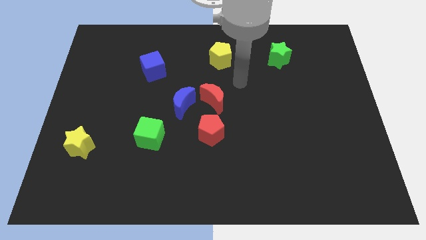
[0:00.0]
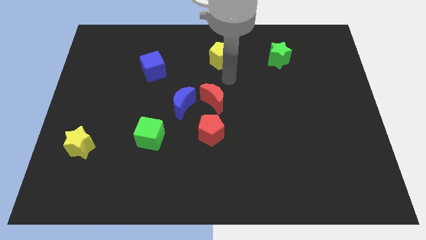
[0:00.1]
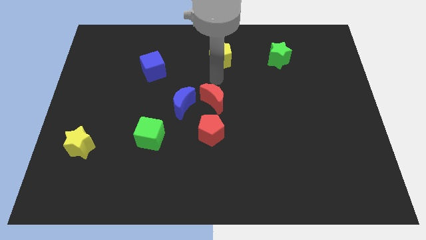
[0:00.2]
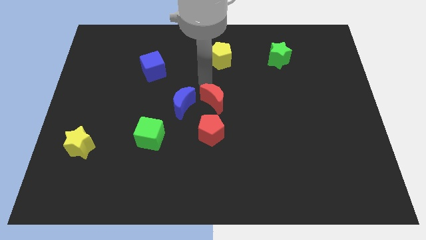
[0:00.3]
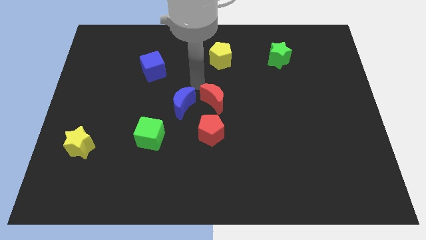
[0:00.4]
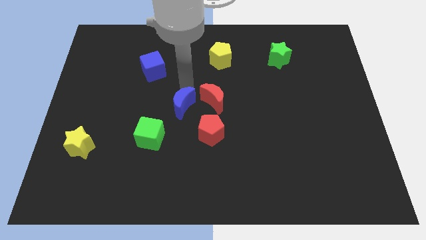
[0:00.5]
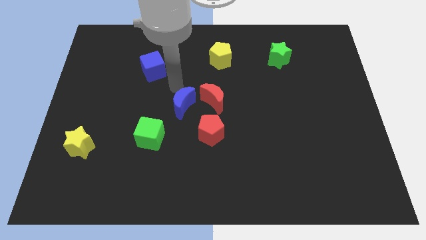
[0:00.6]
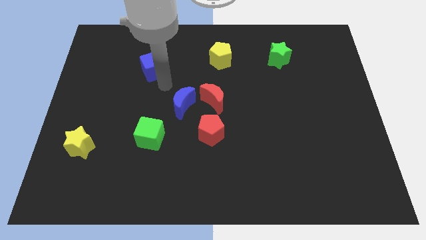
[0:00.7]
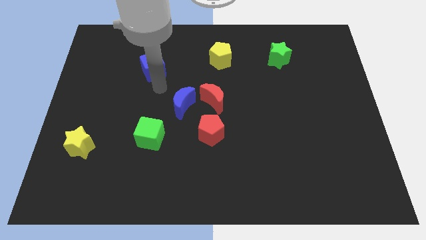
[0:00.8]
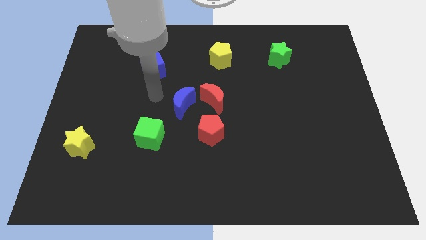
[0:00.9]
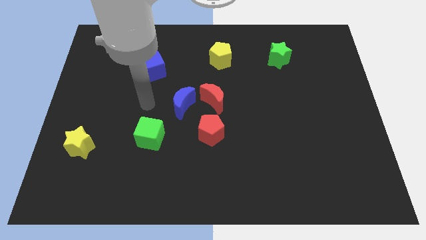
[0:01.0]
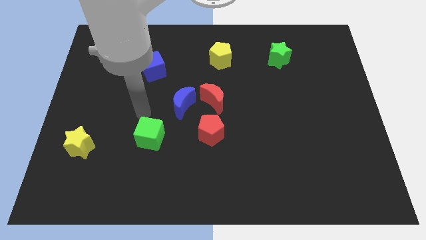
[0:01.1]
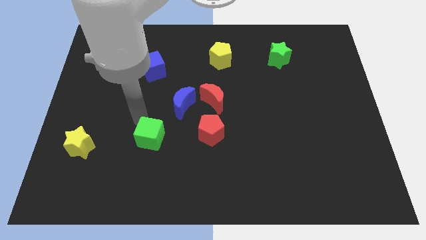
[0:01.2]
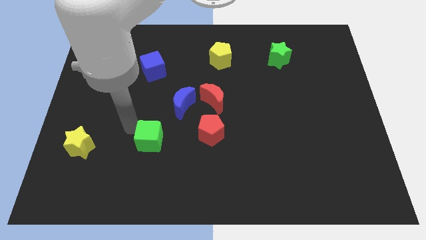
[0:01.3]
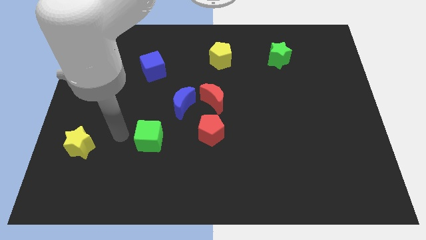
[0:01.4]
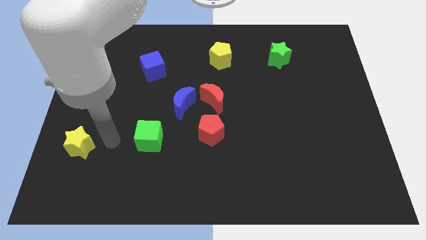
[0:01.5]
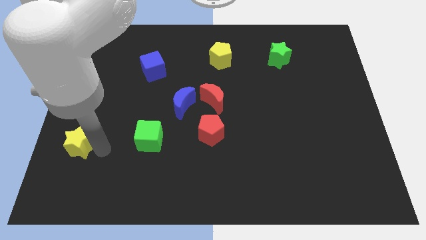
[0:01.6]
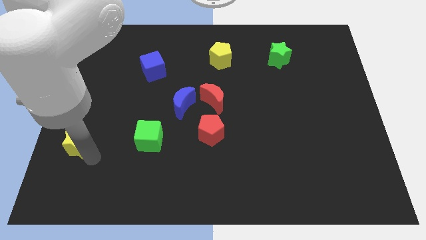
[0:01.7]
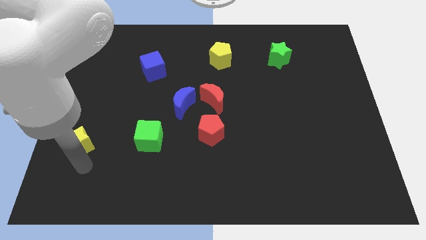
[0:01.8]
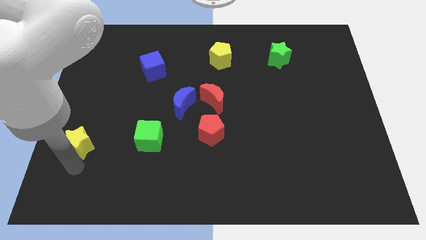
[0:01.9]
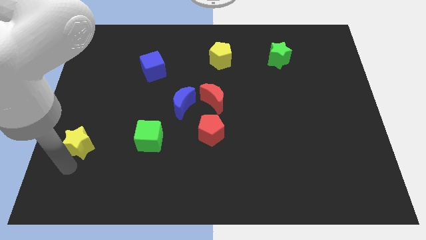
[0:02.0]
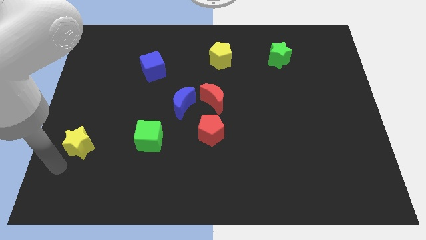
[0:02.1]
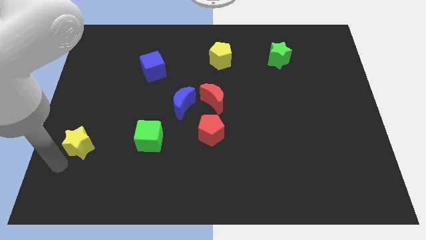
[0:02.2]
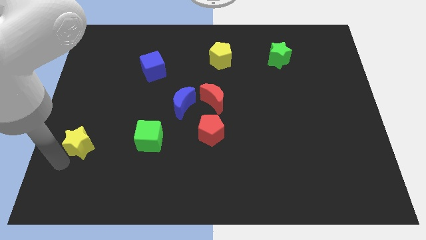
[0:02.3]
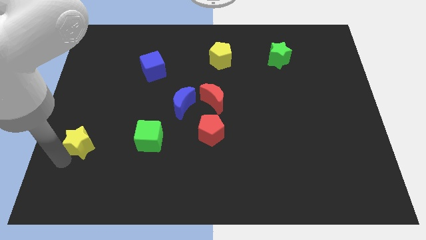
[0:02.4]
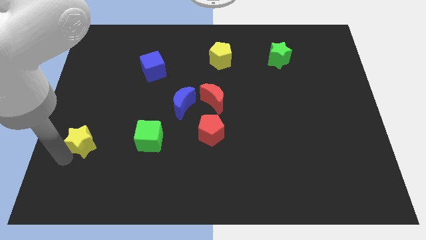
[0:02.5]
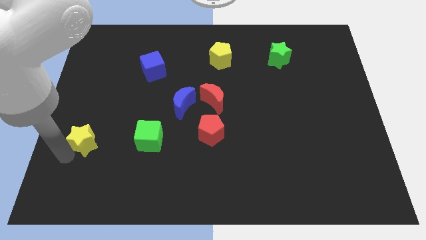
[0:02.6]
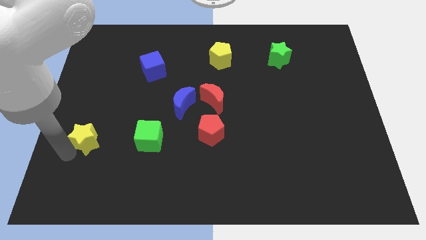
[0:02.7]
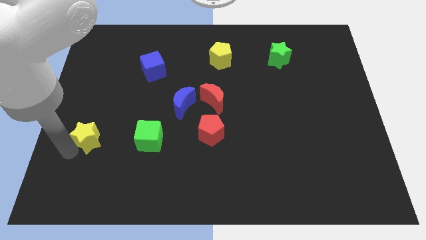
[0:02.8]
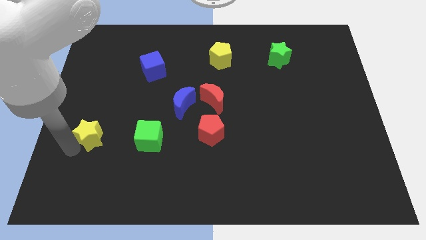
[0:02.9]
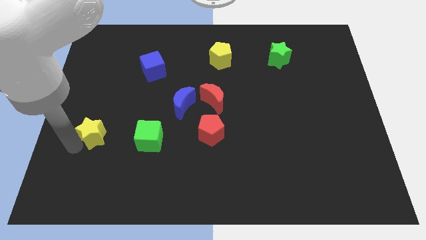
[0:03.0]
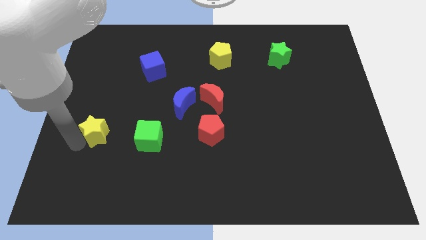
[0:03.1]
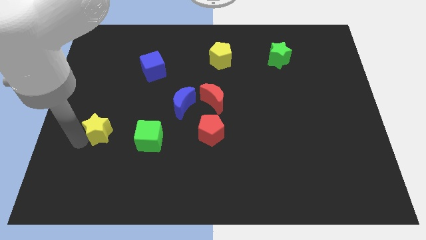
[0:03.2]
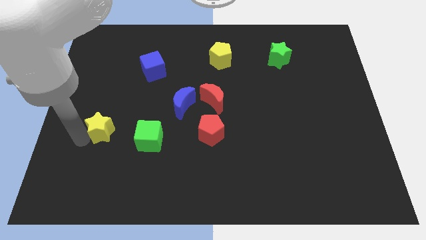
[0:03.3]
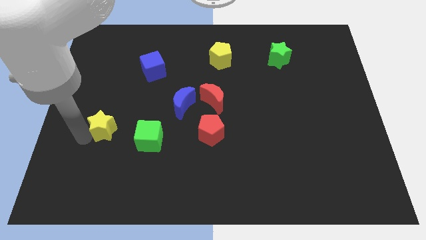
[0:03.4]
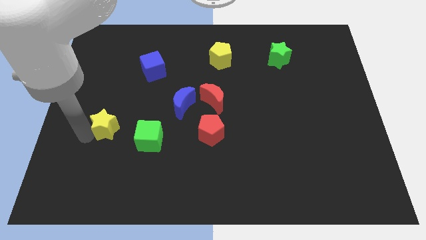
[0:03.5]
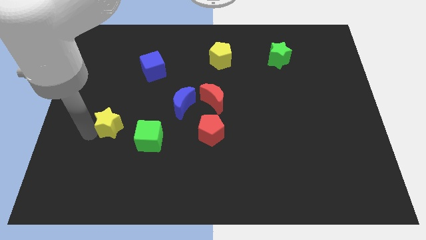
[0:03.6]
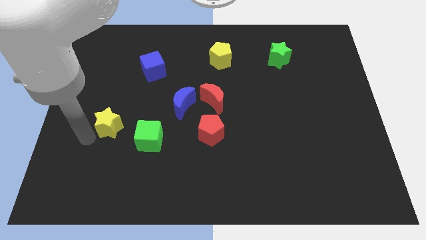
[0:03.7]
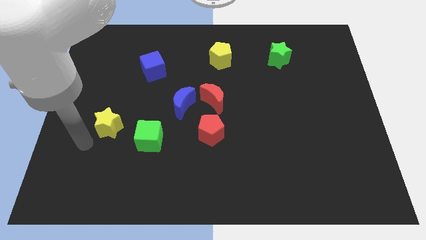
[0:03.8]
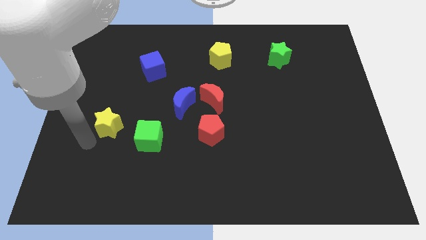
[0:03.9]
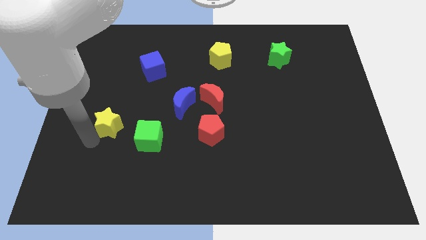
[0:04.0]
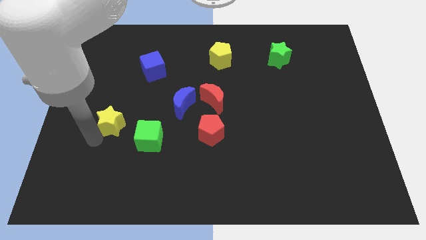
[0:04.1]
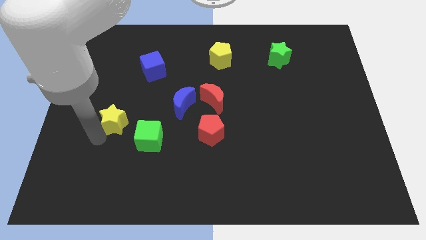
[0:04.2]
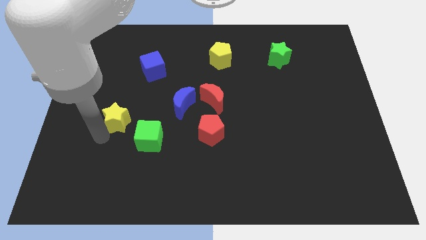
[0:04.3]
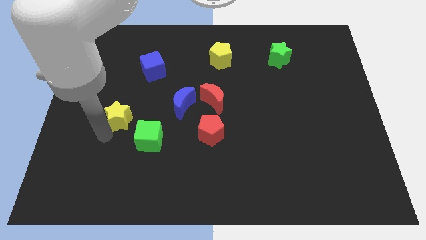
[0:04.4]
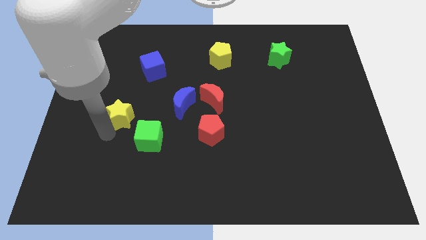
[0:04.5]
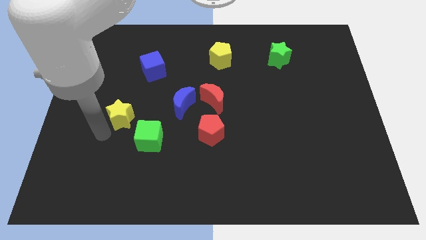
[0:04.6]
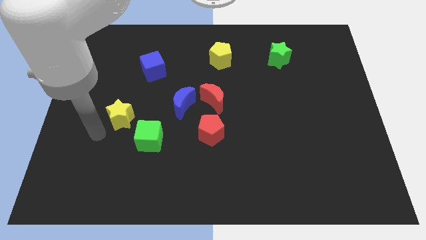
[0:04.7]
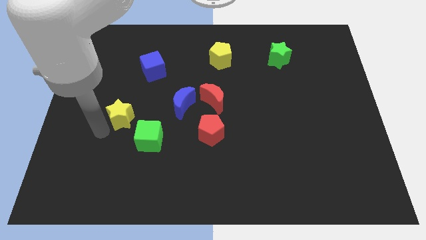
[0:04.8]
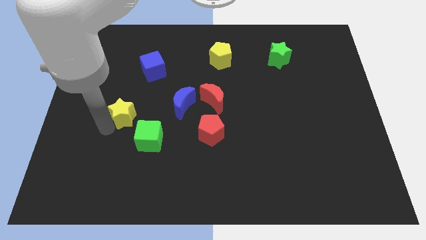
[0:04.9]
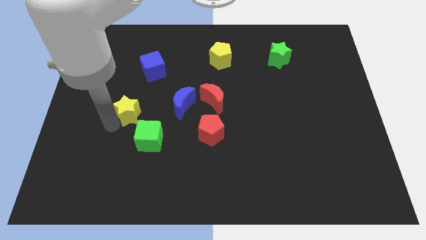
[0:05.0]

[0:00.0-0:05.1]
move the yellow star to the bottom side of the blue cube

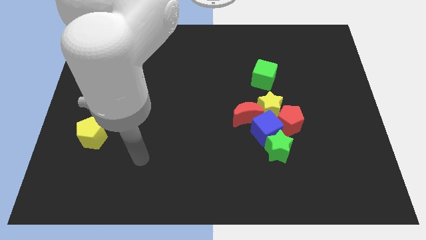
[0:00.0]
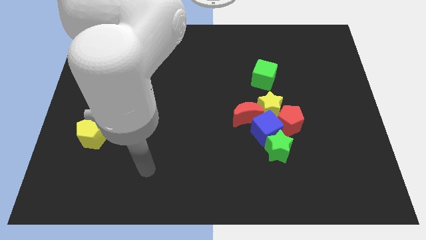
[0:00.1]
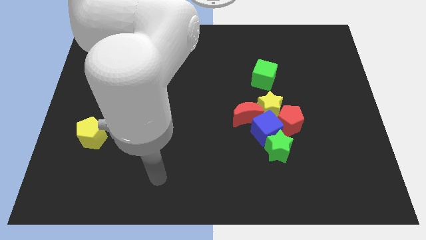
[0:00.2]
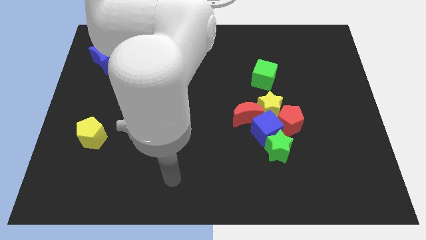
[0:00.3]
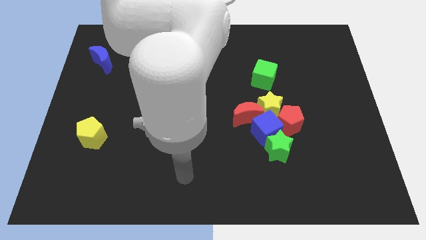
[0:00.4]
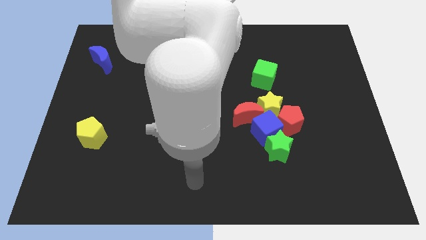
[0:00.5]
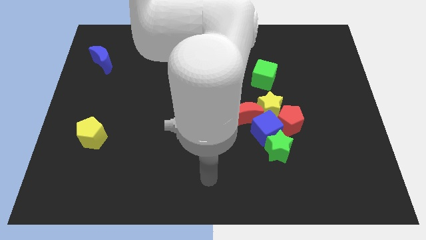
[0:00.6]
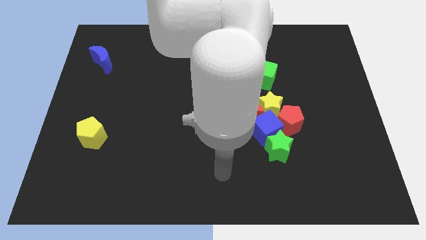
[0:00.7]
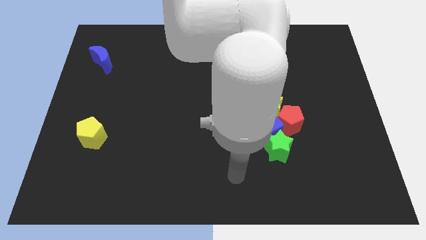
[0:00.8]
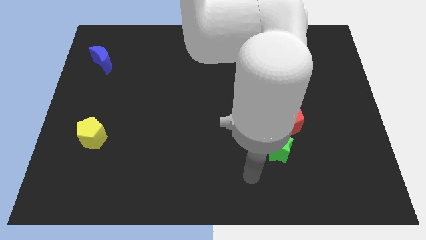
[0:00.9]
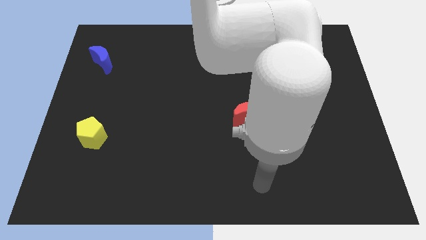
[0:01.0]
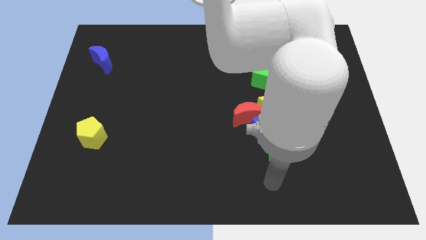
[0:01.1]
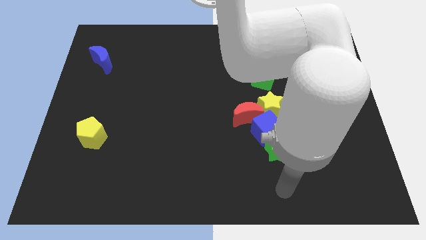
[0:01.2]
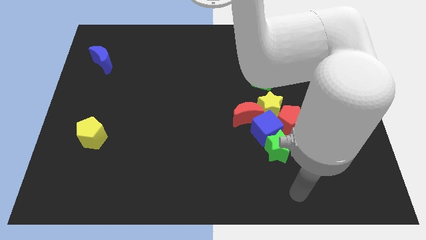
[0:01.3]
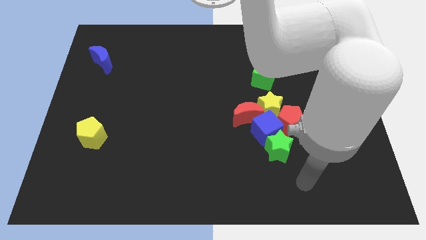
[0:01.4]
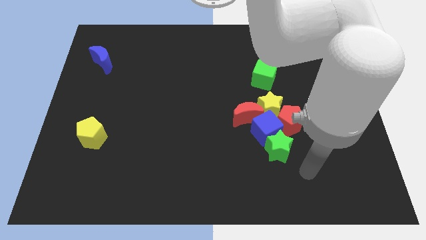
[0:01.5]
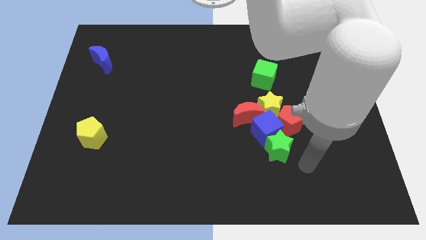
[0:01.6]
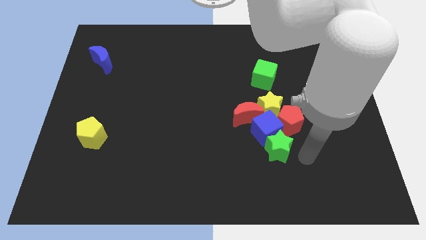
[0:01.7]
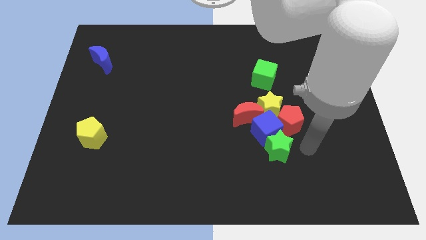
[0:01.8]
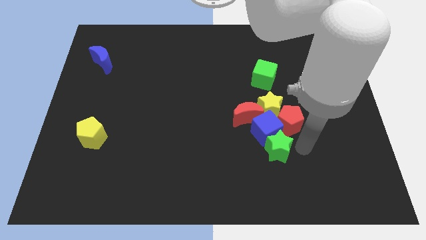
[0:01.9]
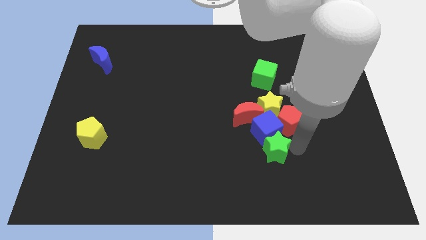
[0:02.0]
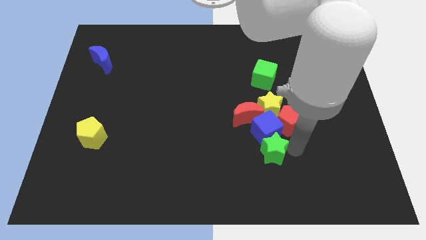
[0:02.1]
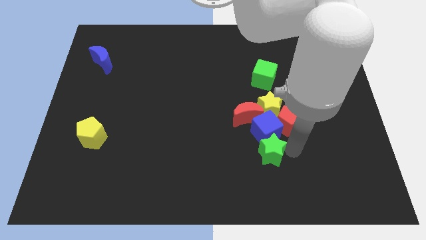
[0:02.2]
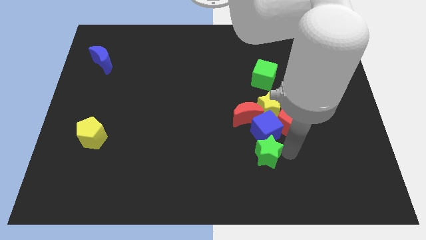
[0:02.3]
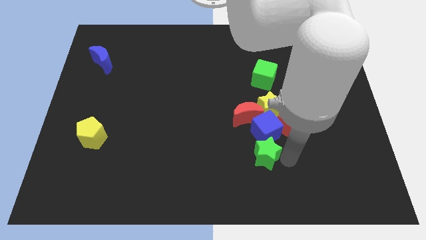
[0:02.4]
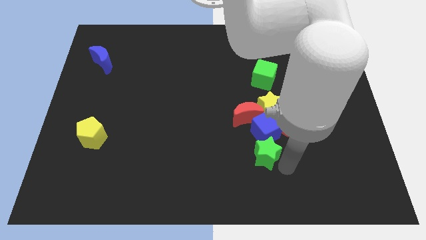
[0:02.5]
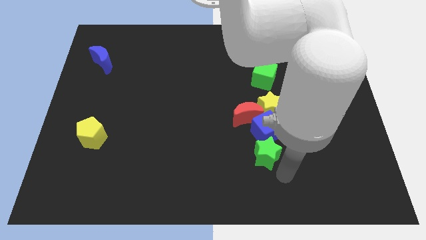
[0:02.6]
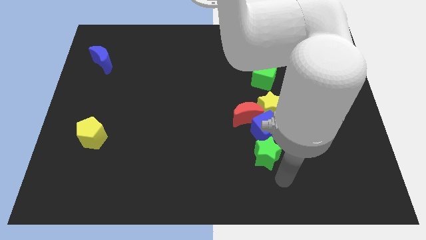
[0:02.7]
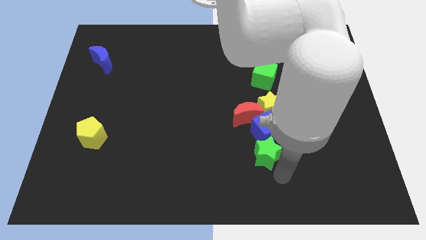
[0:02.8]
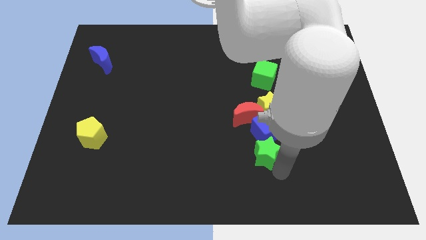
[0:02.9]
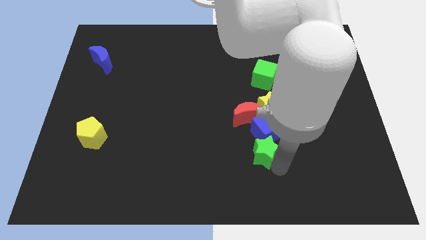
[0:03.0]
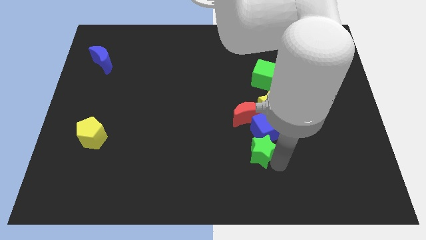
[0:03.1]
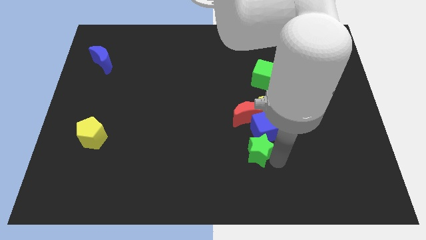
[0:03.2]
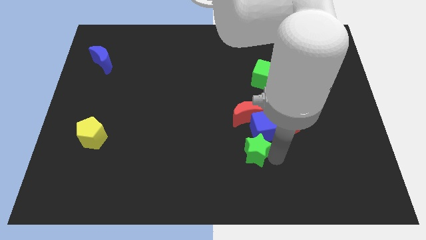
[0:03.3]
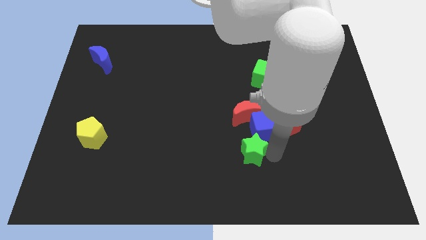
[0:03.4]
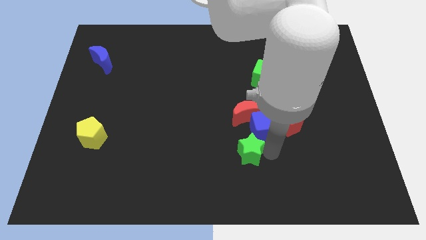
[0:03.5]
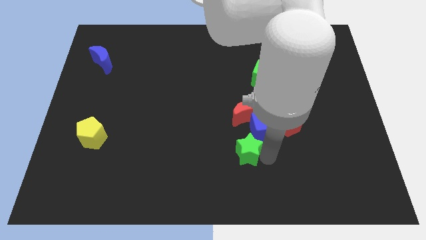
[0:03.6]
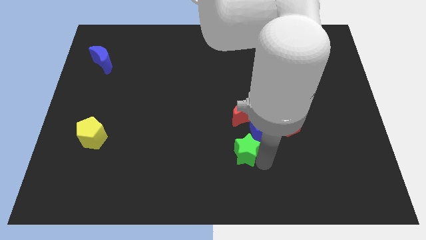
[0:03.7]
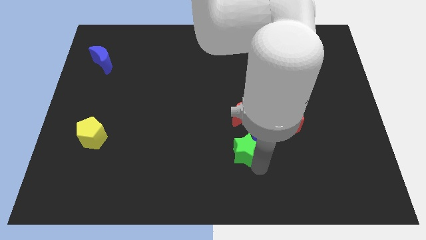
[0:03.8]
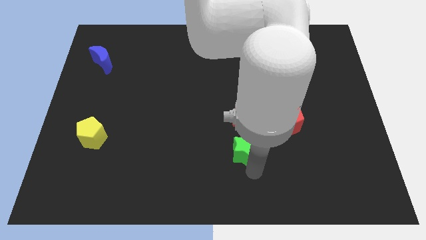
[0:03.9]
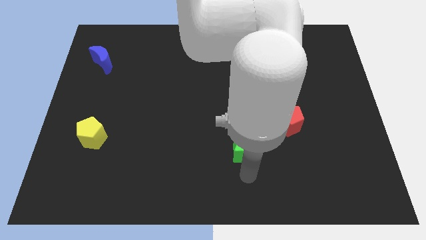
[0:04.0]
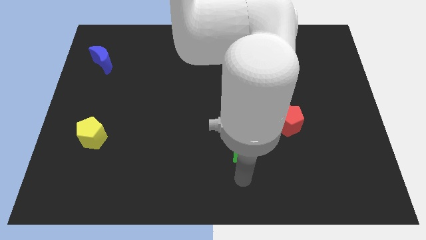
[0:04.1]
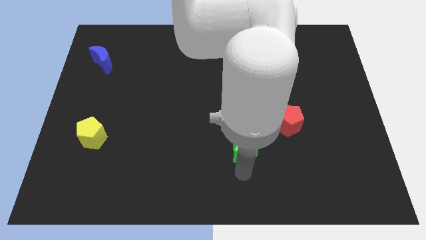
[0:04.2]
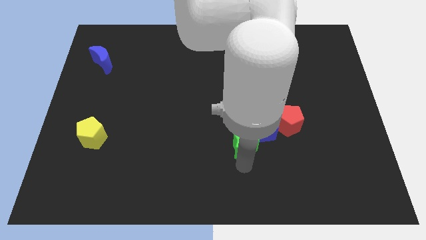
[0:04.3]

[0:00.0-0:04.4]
slide the green star to the bottom left of the yellow star
